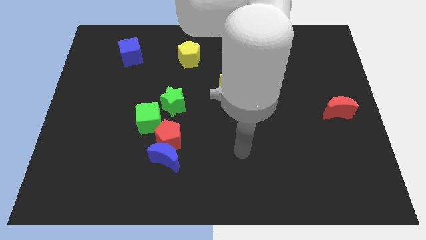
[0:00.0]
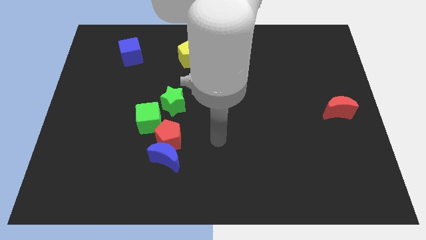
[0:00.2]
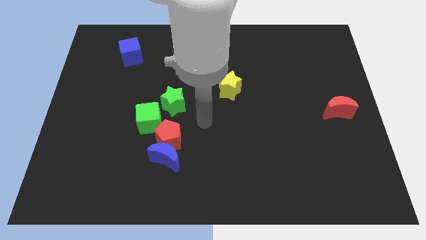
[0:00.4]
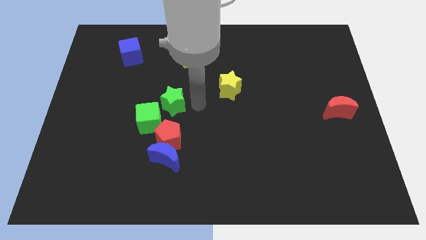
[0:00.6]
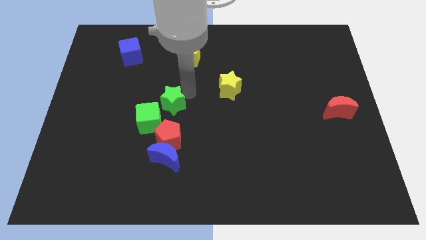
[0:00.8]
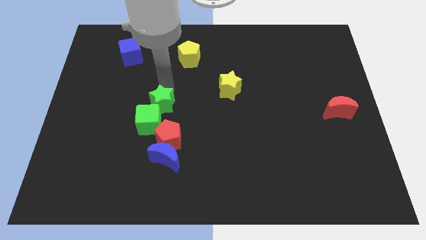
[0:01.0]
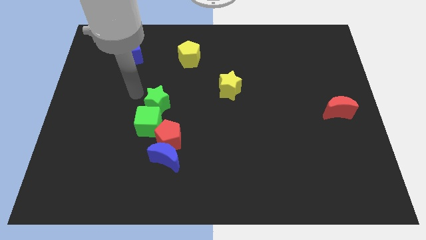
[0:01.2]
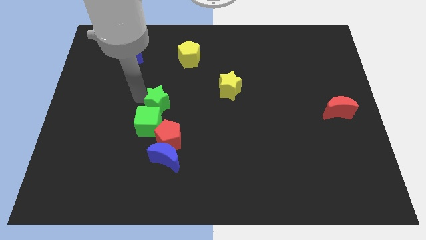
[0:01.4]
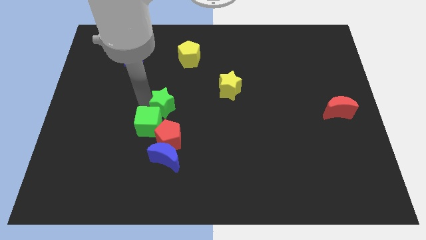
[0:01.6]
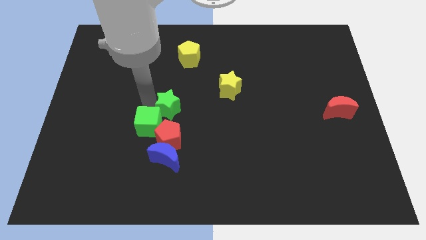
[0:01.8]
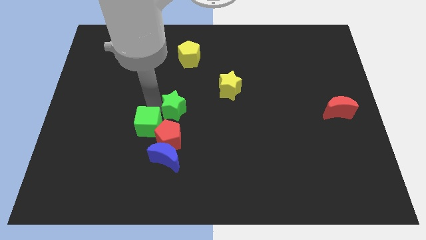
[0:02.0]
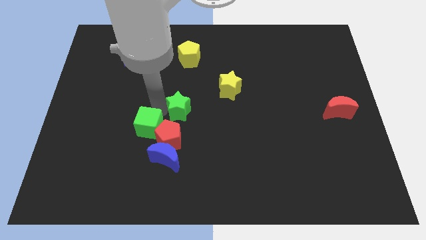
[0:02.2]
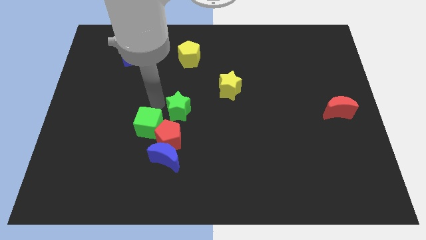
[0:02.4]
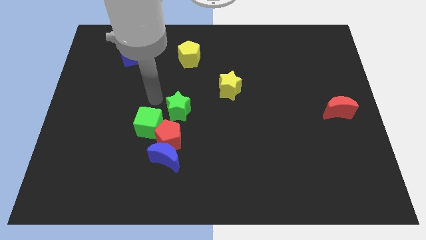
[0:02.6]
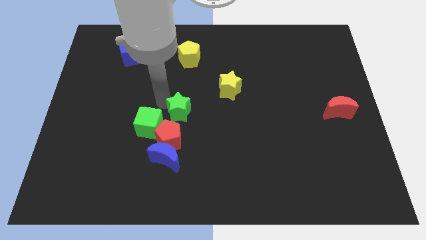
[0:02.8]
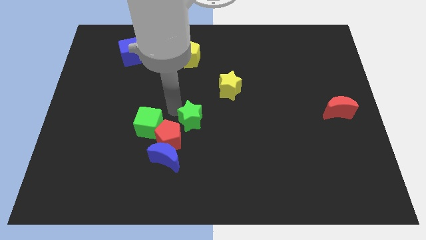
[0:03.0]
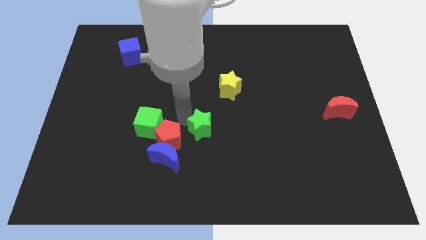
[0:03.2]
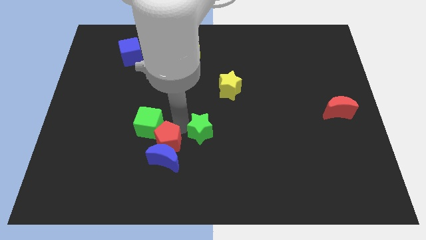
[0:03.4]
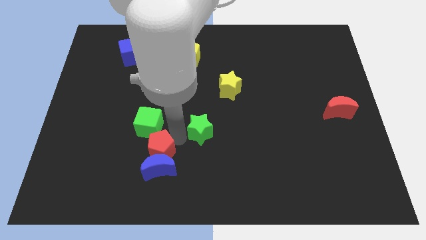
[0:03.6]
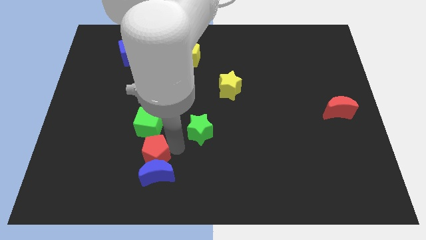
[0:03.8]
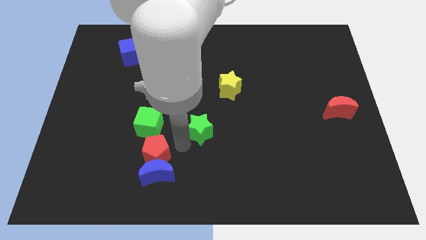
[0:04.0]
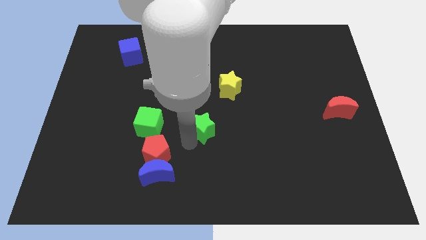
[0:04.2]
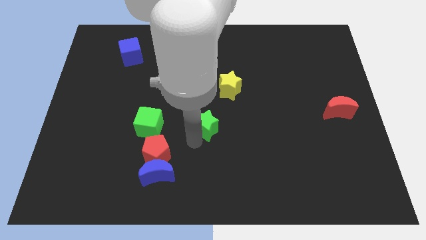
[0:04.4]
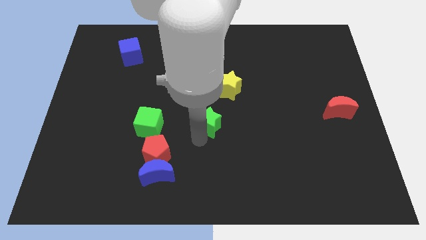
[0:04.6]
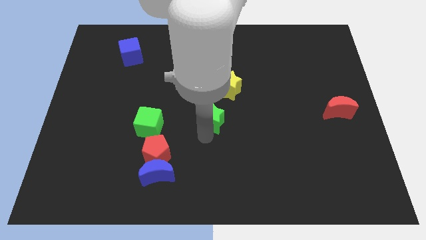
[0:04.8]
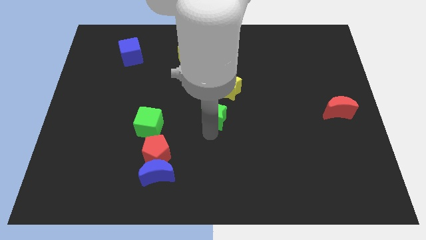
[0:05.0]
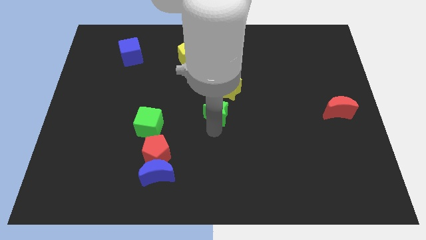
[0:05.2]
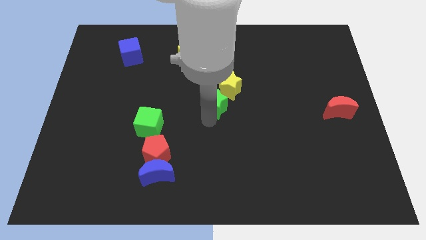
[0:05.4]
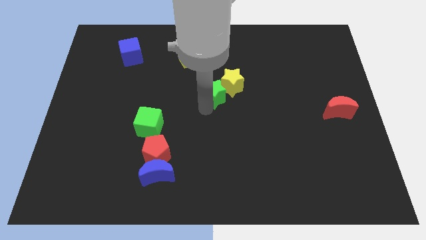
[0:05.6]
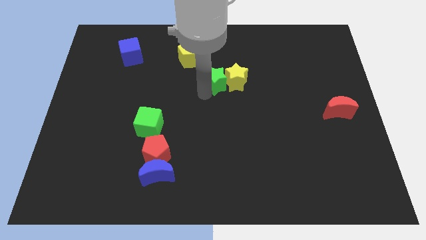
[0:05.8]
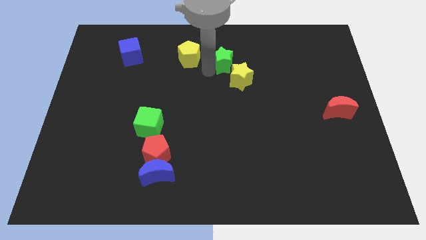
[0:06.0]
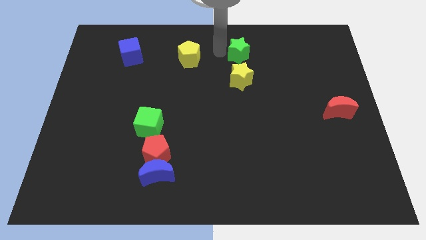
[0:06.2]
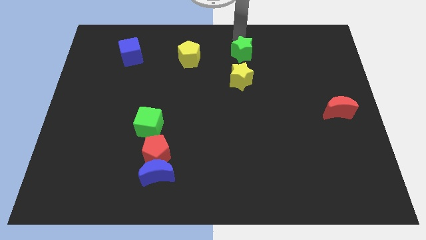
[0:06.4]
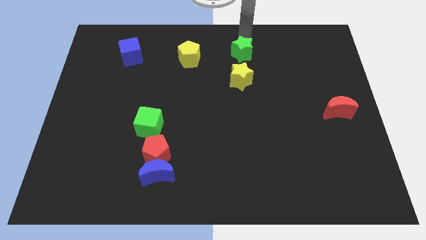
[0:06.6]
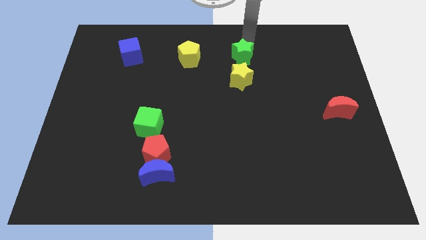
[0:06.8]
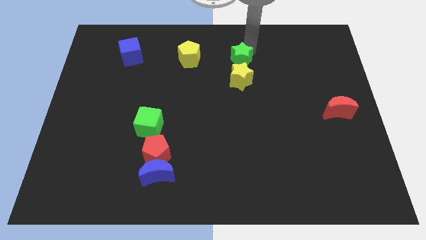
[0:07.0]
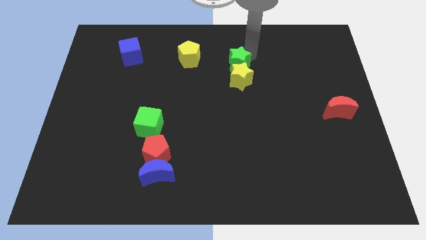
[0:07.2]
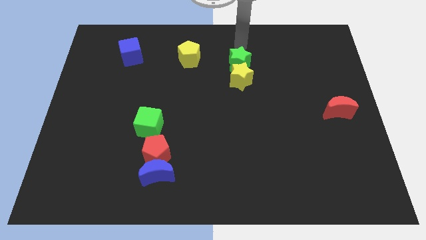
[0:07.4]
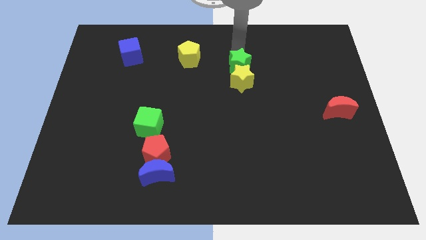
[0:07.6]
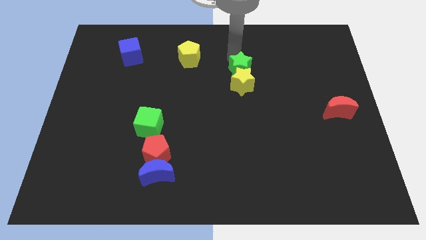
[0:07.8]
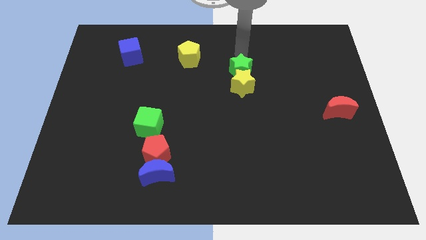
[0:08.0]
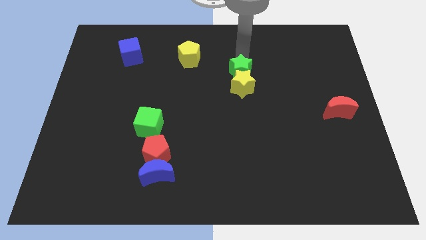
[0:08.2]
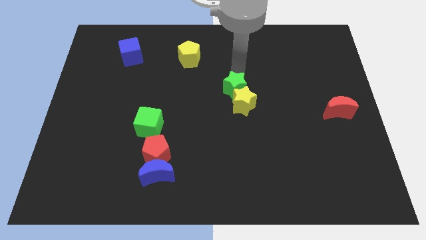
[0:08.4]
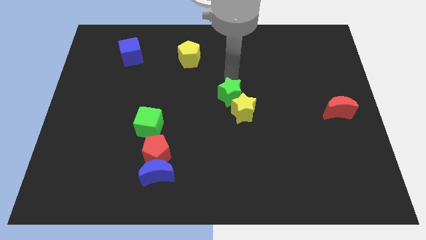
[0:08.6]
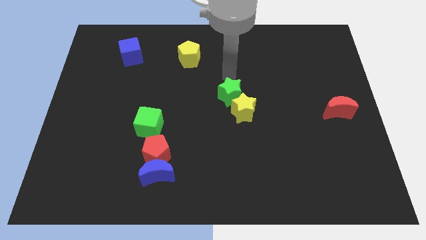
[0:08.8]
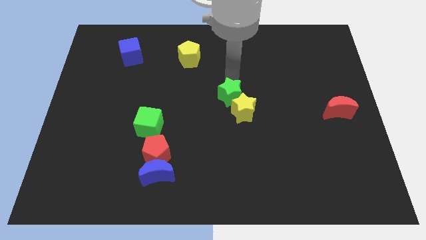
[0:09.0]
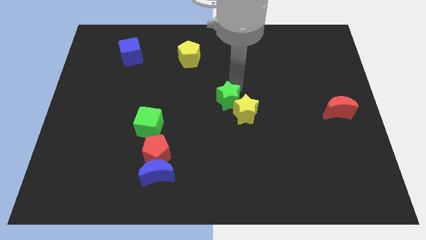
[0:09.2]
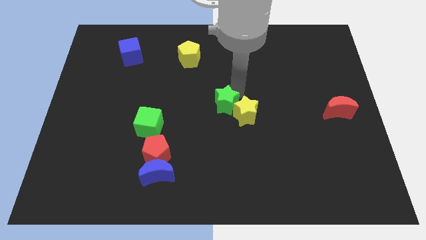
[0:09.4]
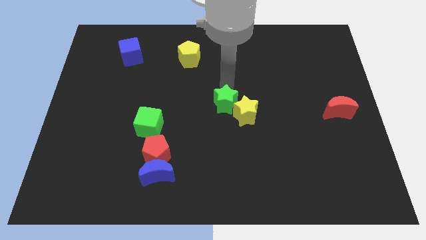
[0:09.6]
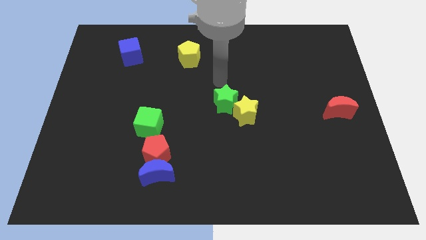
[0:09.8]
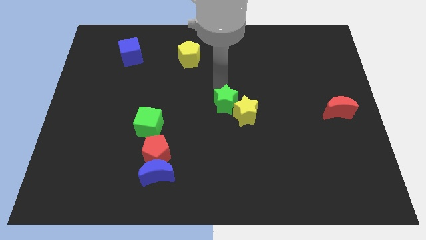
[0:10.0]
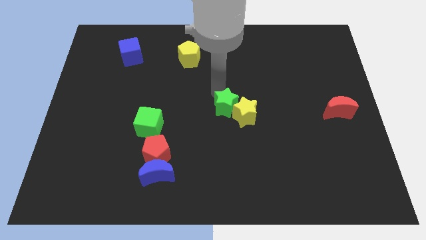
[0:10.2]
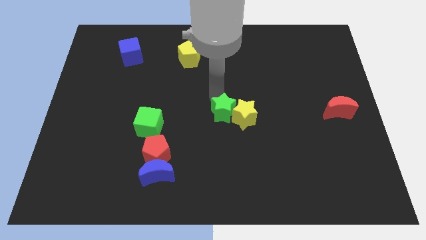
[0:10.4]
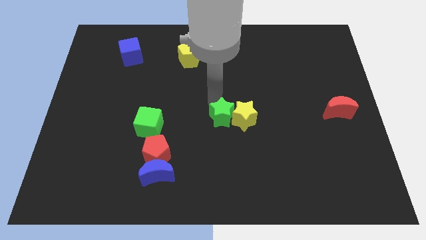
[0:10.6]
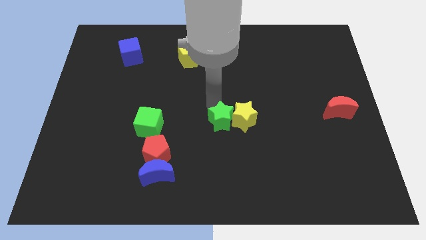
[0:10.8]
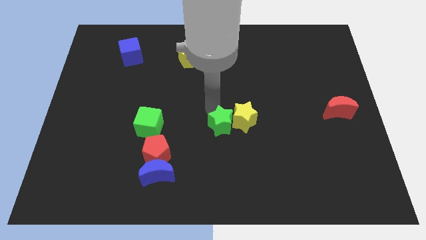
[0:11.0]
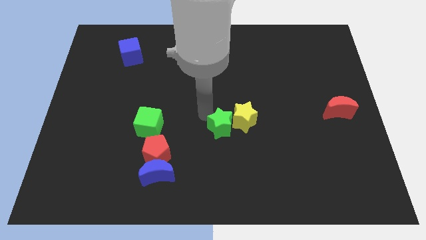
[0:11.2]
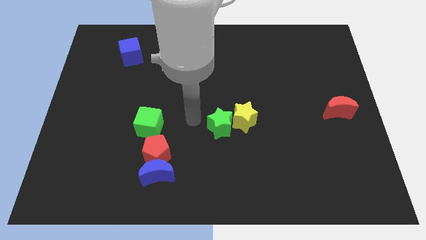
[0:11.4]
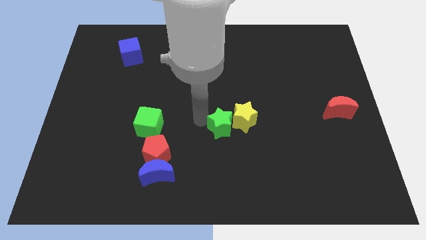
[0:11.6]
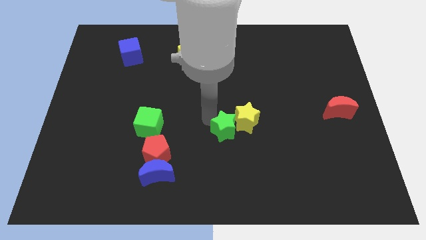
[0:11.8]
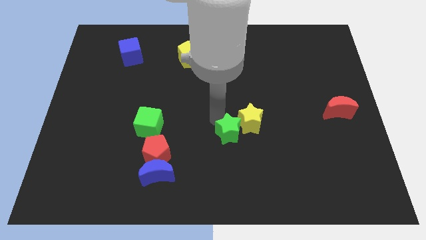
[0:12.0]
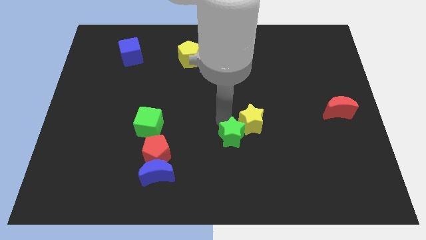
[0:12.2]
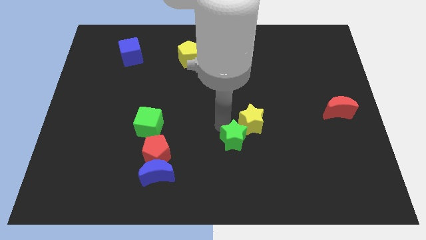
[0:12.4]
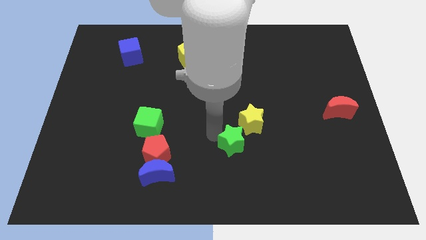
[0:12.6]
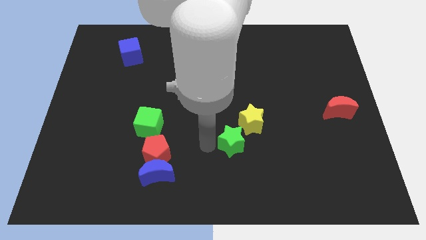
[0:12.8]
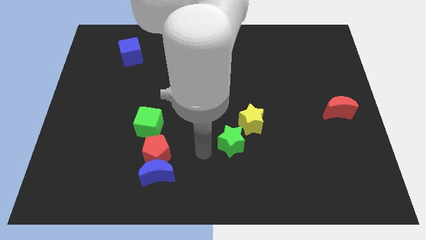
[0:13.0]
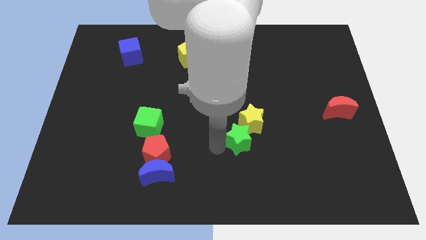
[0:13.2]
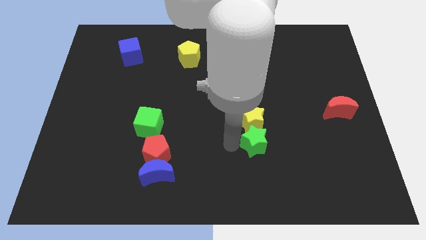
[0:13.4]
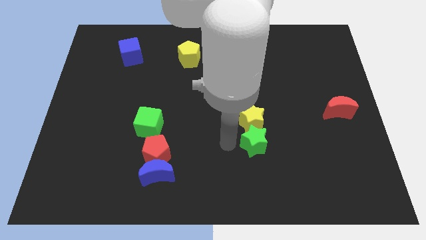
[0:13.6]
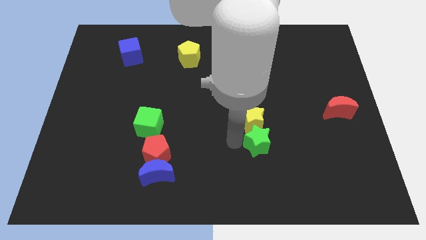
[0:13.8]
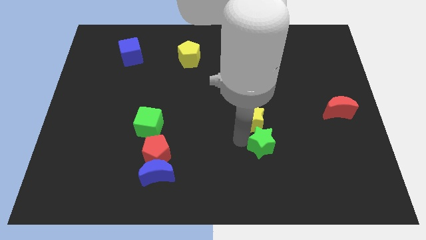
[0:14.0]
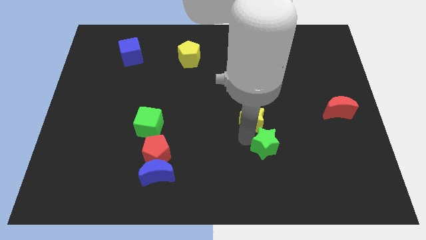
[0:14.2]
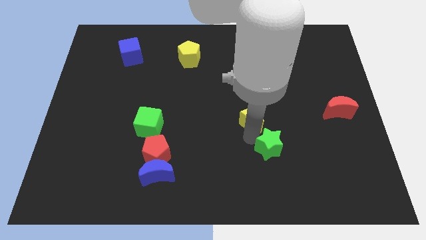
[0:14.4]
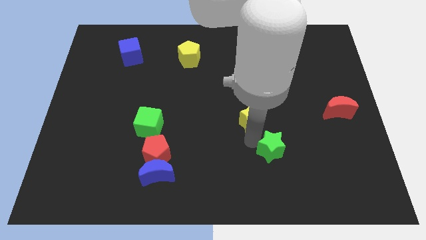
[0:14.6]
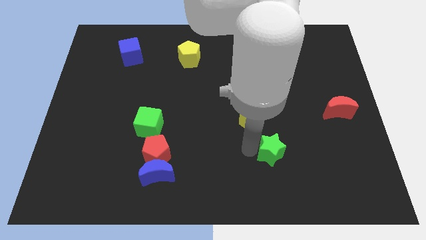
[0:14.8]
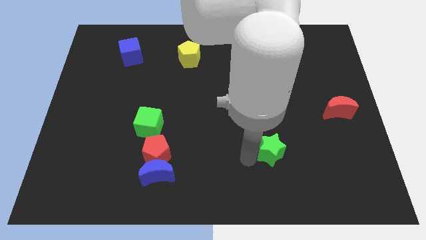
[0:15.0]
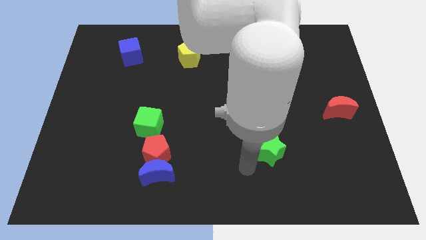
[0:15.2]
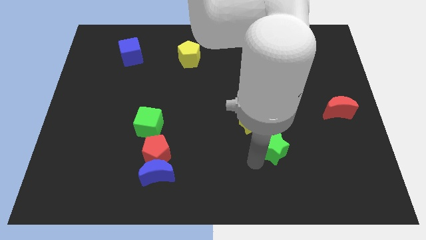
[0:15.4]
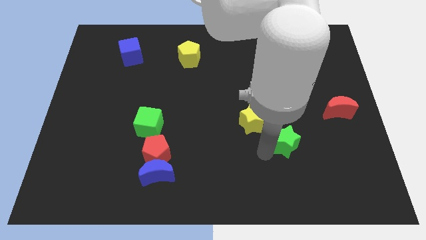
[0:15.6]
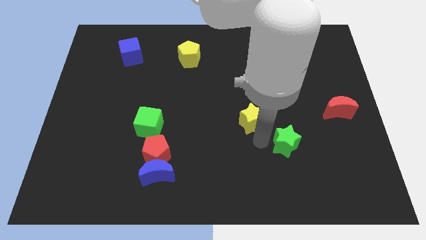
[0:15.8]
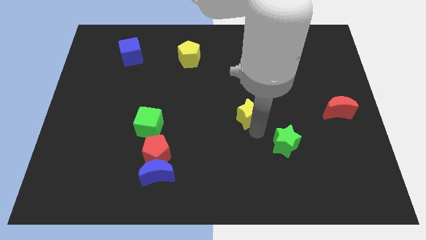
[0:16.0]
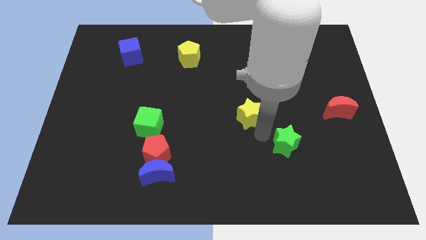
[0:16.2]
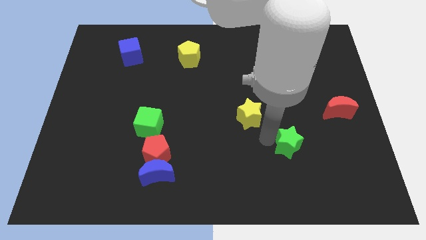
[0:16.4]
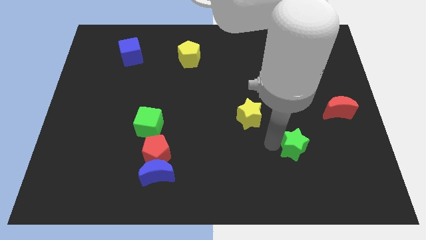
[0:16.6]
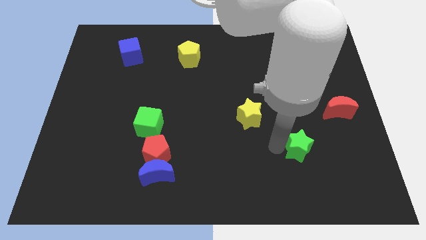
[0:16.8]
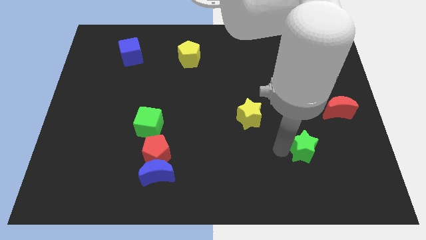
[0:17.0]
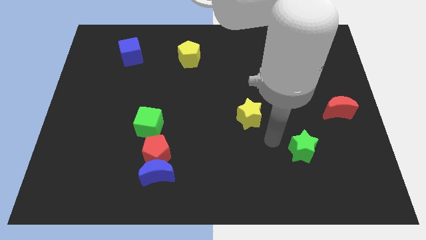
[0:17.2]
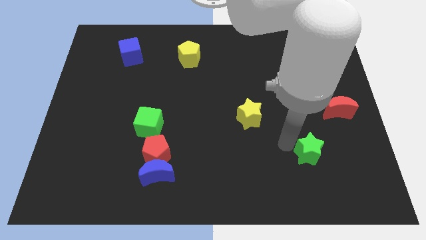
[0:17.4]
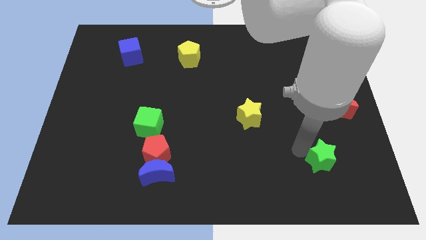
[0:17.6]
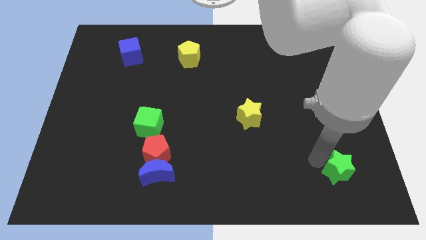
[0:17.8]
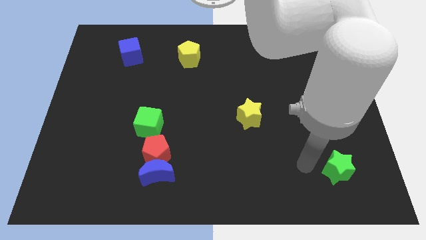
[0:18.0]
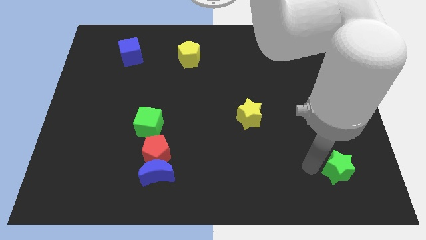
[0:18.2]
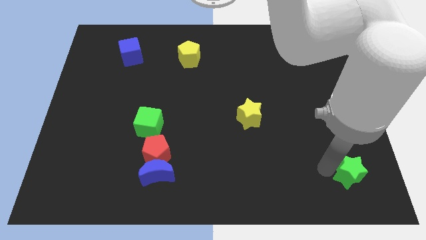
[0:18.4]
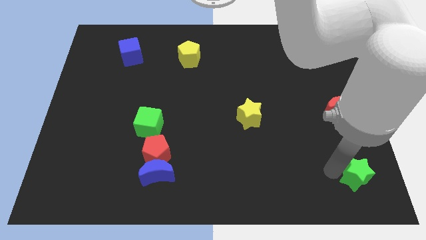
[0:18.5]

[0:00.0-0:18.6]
put the green star to the bottom right of the board
